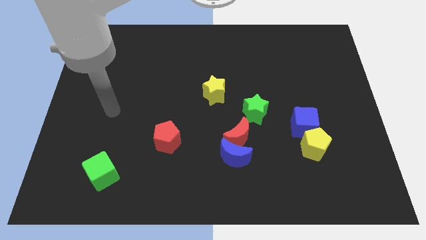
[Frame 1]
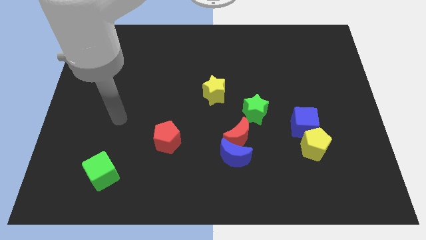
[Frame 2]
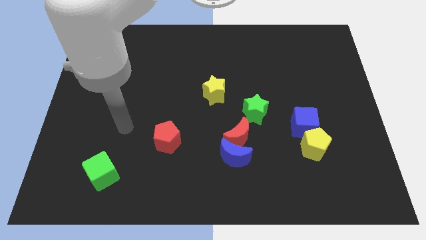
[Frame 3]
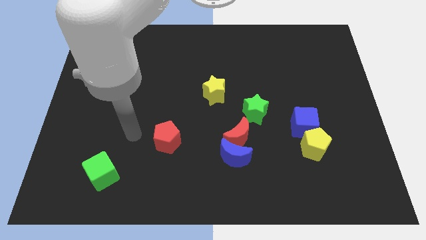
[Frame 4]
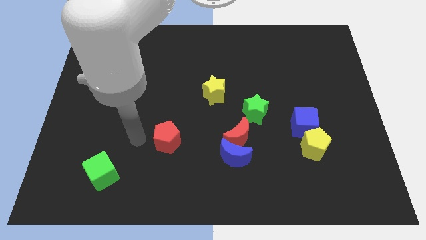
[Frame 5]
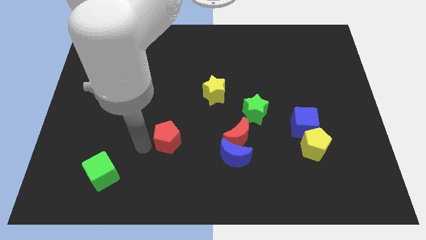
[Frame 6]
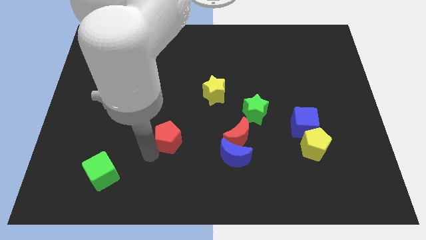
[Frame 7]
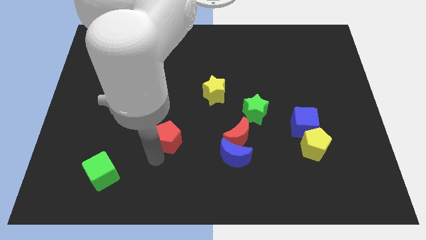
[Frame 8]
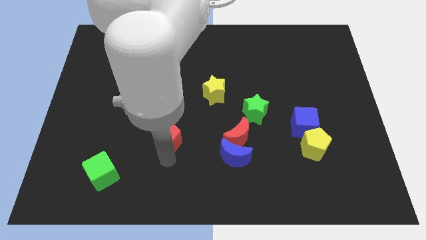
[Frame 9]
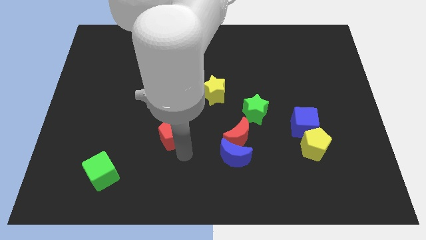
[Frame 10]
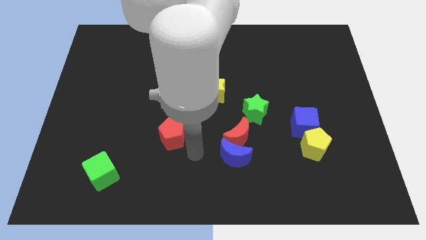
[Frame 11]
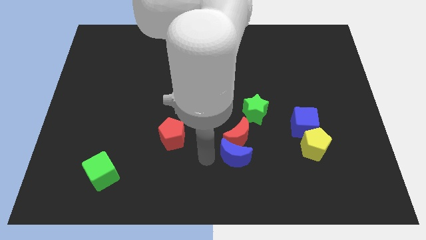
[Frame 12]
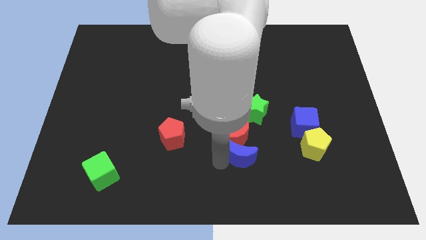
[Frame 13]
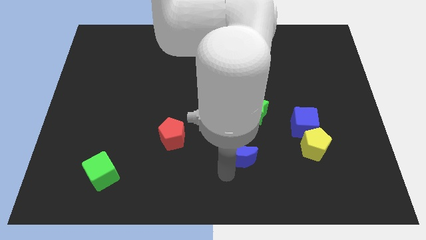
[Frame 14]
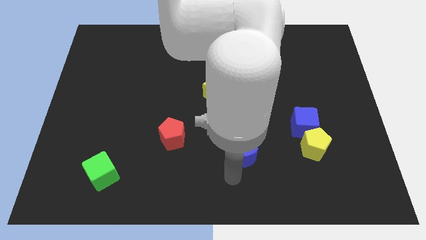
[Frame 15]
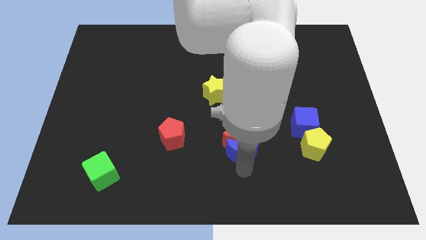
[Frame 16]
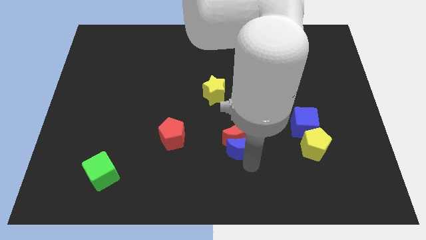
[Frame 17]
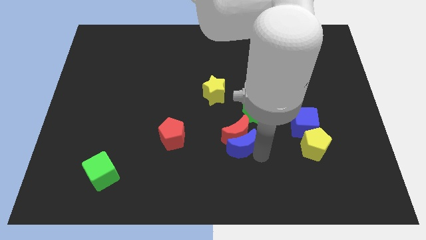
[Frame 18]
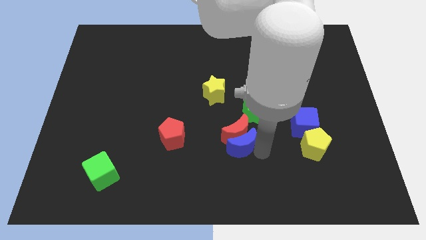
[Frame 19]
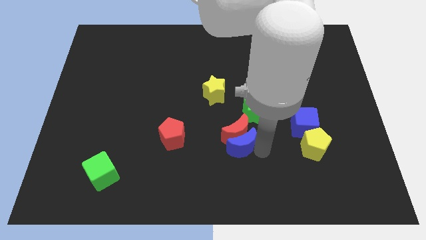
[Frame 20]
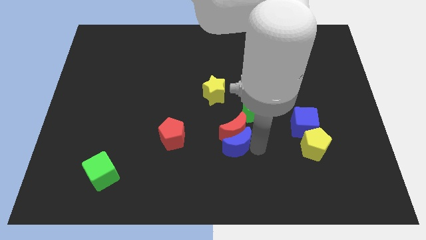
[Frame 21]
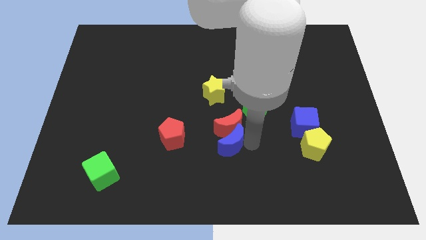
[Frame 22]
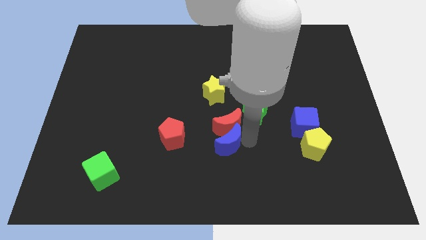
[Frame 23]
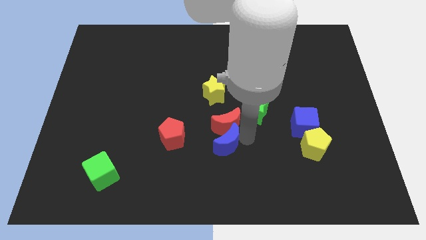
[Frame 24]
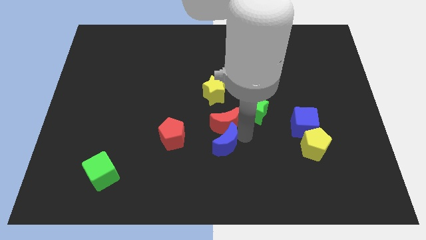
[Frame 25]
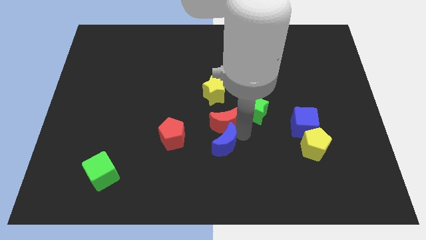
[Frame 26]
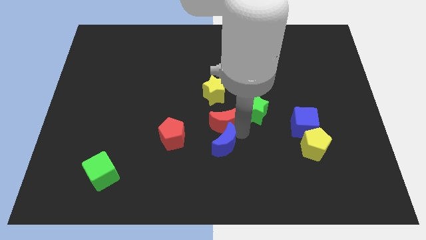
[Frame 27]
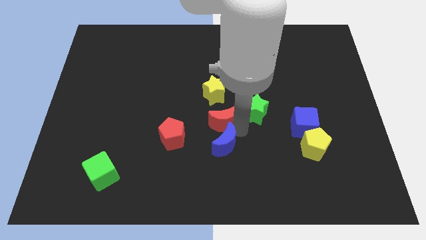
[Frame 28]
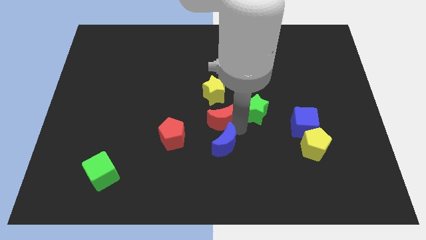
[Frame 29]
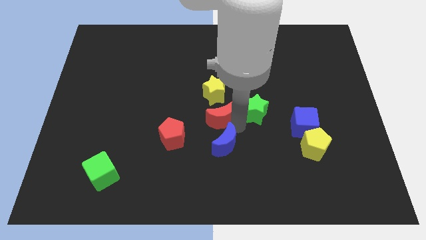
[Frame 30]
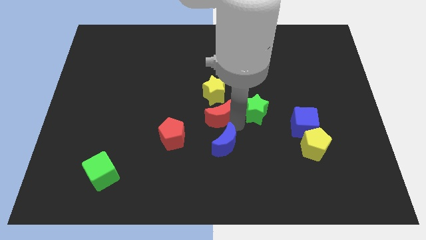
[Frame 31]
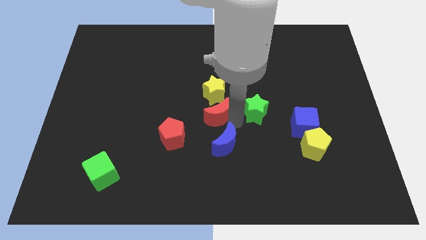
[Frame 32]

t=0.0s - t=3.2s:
slide the red moon up and to the left slightly

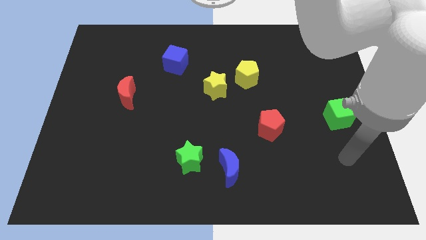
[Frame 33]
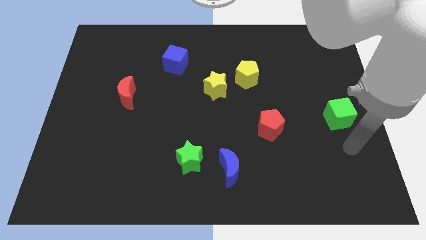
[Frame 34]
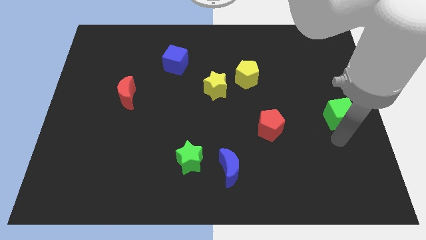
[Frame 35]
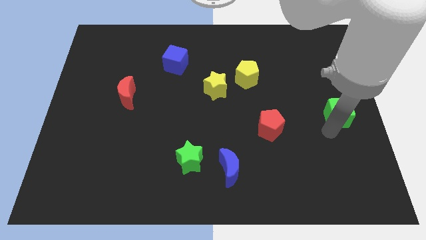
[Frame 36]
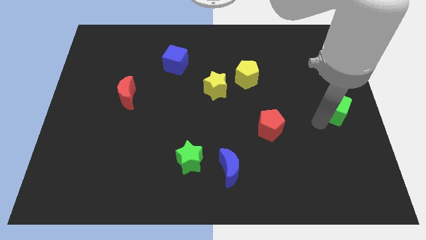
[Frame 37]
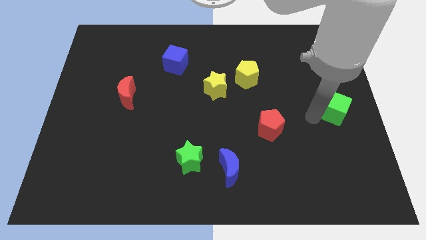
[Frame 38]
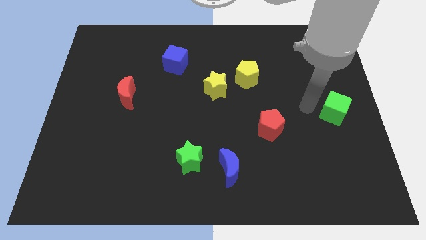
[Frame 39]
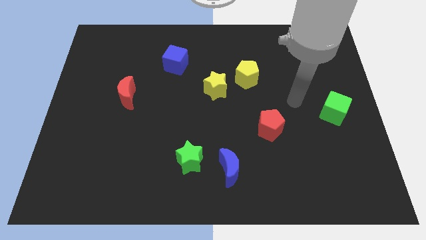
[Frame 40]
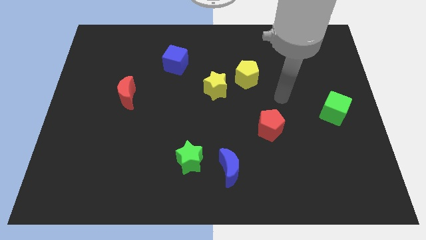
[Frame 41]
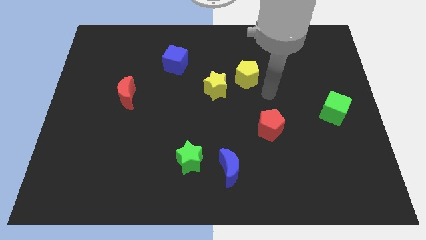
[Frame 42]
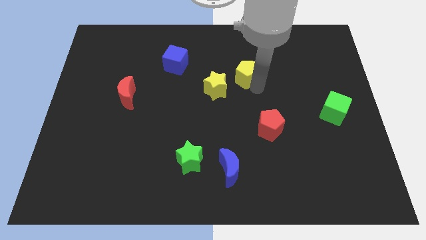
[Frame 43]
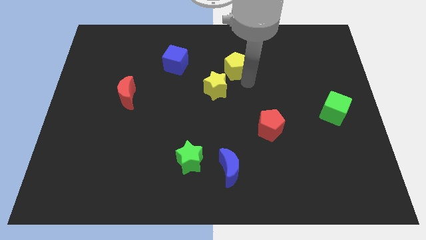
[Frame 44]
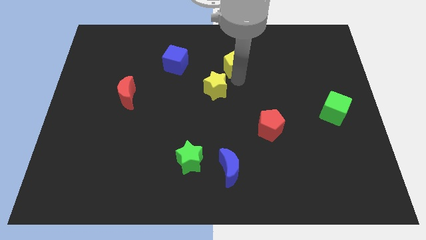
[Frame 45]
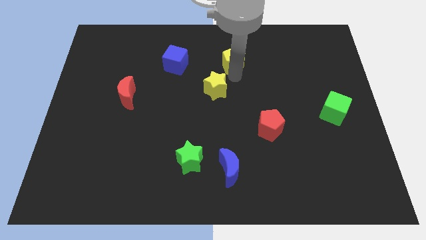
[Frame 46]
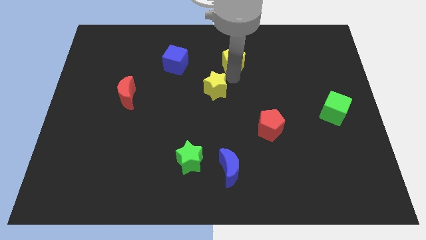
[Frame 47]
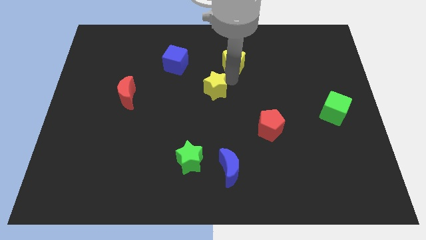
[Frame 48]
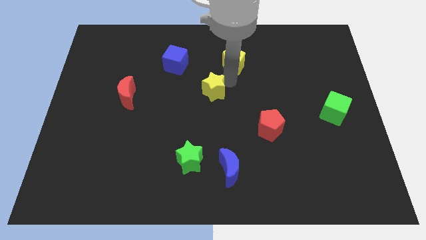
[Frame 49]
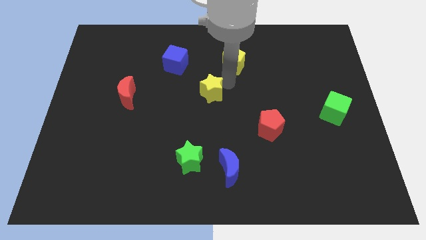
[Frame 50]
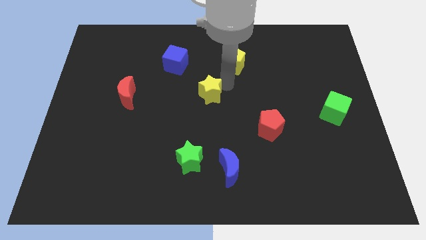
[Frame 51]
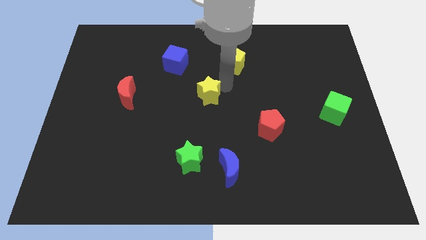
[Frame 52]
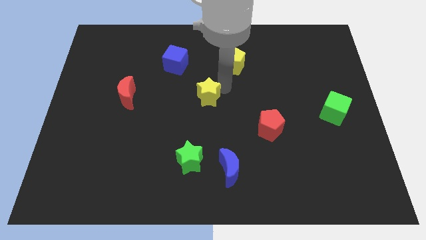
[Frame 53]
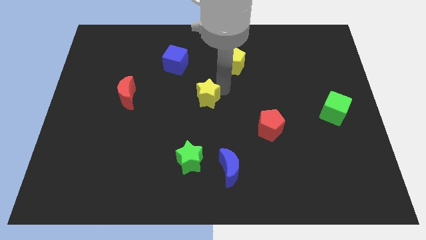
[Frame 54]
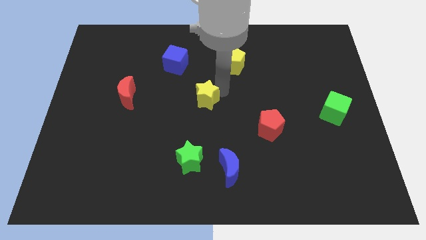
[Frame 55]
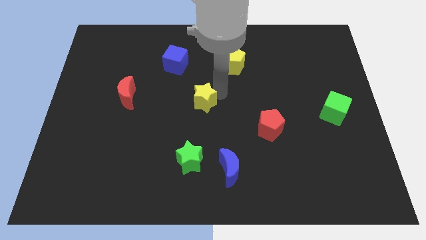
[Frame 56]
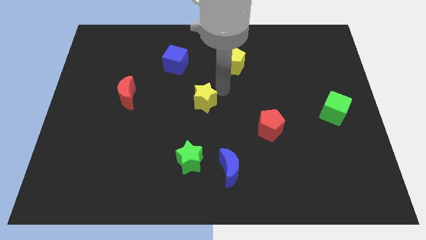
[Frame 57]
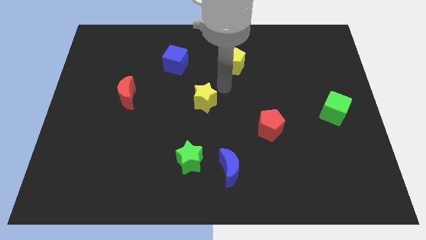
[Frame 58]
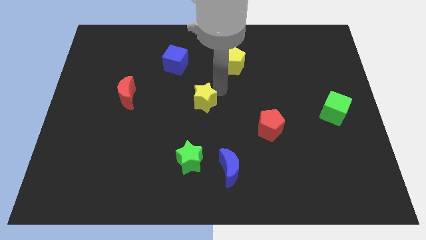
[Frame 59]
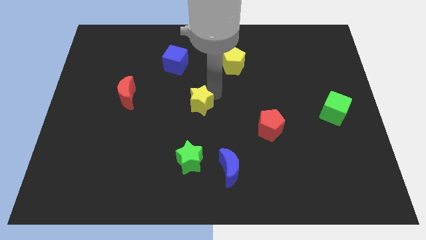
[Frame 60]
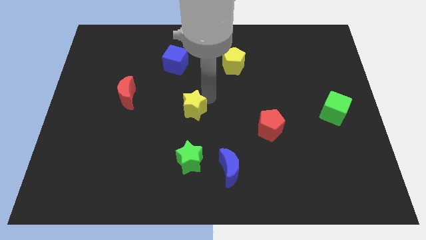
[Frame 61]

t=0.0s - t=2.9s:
slightly push the yellow star downwards and left diagonally

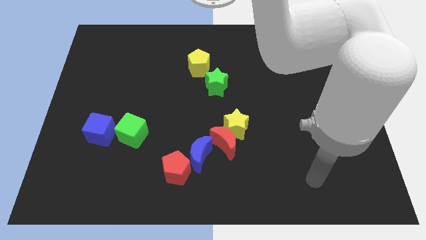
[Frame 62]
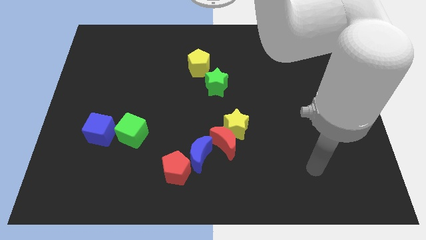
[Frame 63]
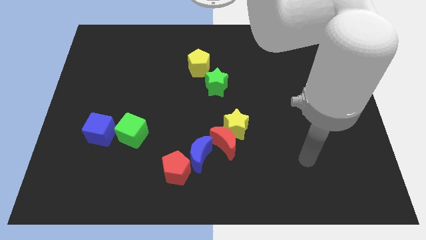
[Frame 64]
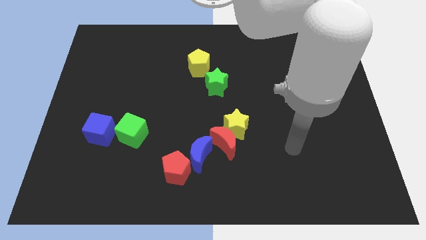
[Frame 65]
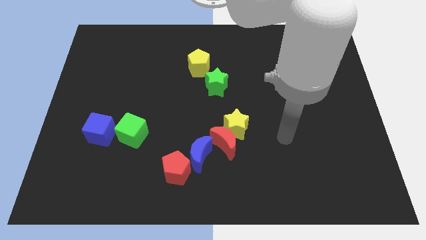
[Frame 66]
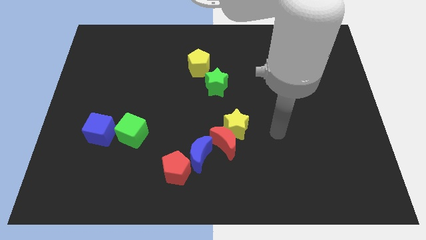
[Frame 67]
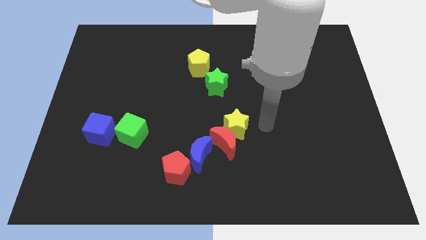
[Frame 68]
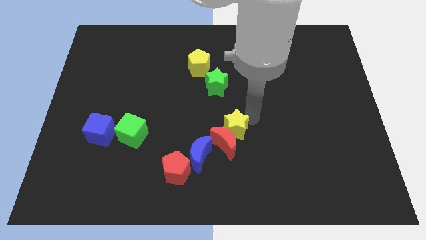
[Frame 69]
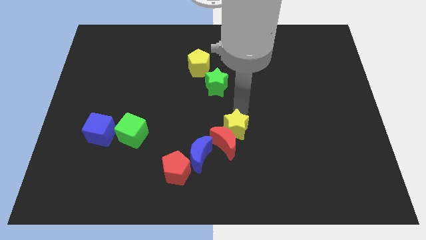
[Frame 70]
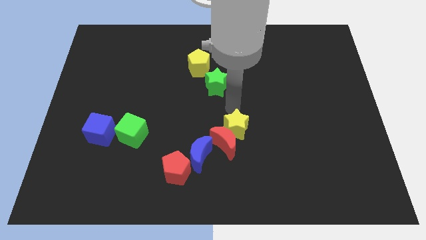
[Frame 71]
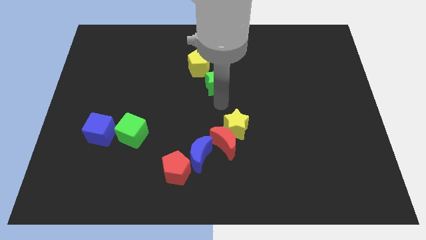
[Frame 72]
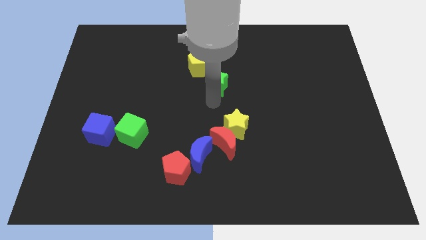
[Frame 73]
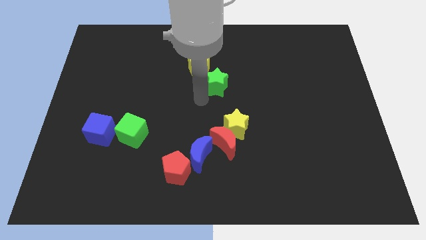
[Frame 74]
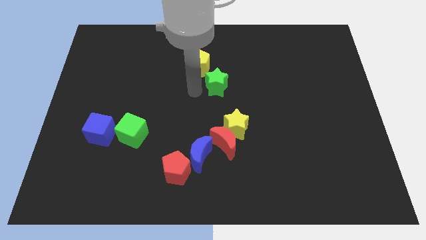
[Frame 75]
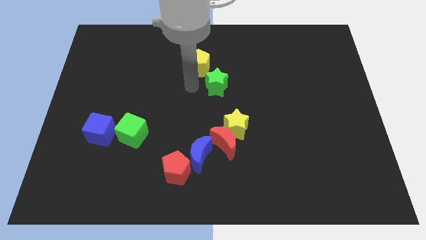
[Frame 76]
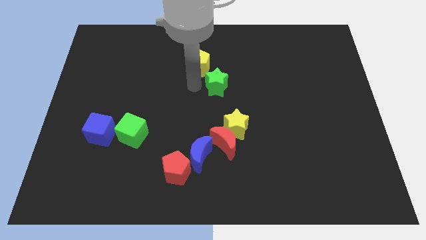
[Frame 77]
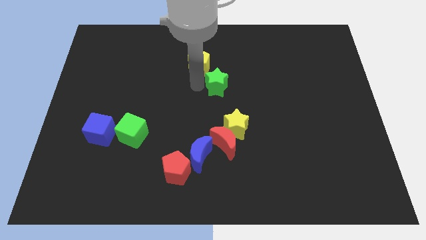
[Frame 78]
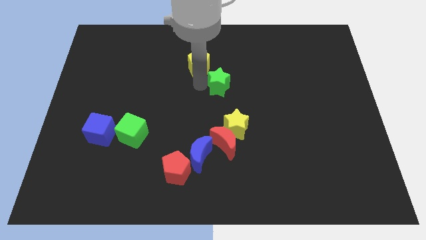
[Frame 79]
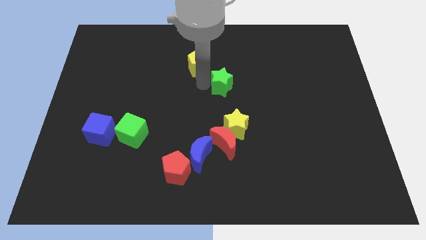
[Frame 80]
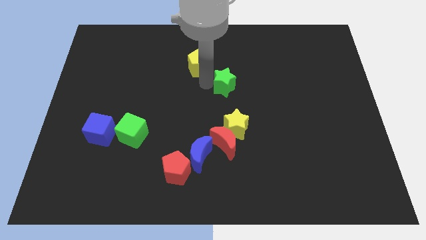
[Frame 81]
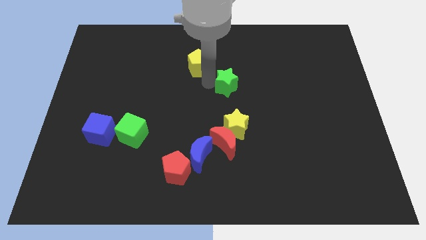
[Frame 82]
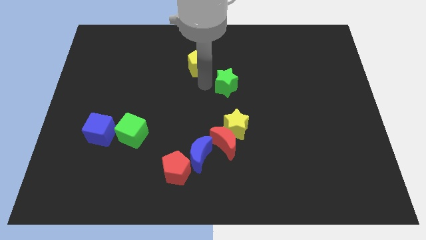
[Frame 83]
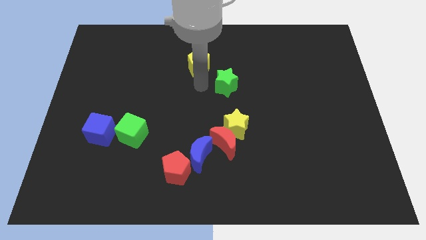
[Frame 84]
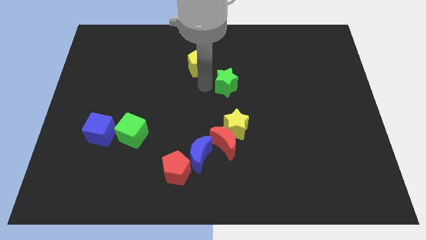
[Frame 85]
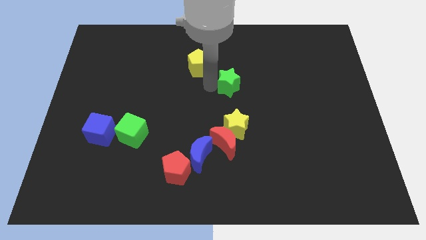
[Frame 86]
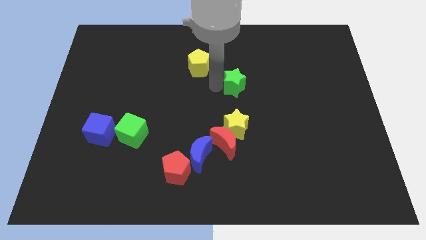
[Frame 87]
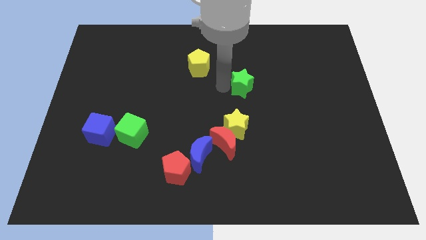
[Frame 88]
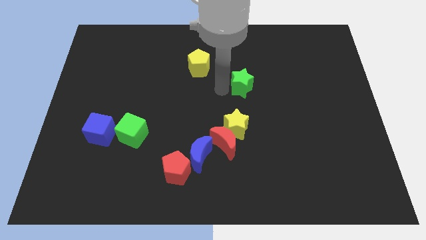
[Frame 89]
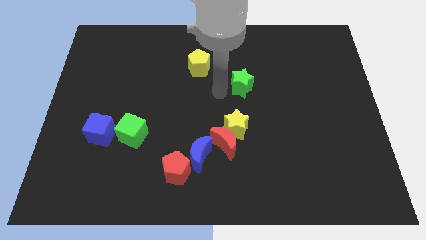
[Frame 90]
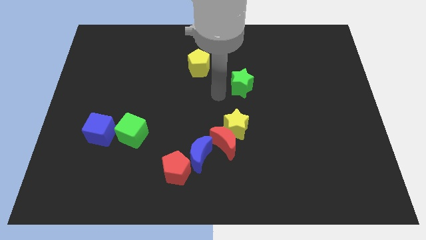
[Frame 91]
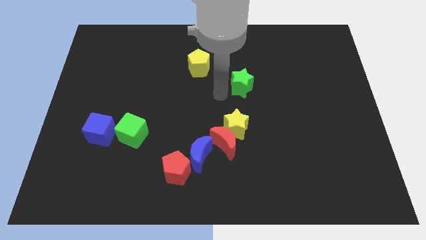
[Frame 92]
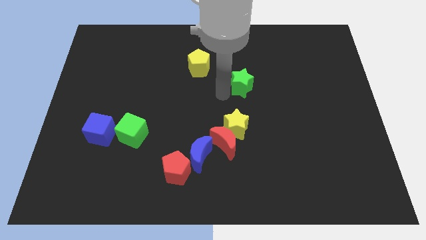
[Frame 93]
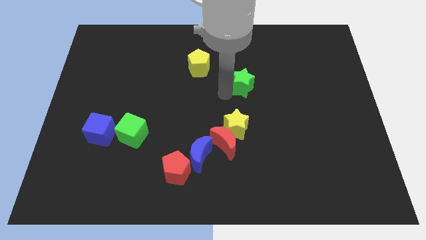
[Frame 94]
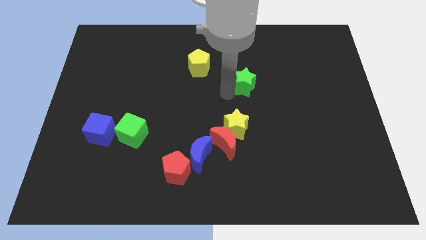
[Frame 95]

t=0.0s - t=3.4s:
move the green star a little bit to the right
